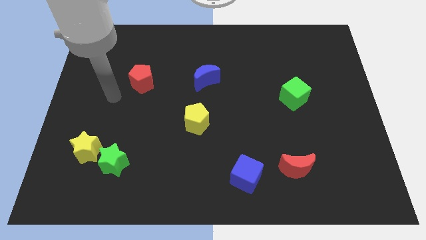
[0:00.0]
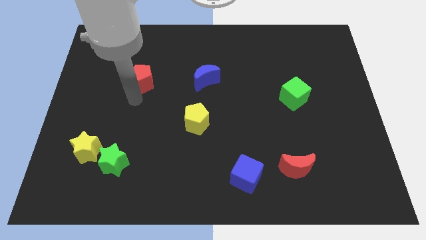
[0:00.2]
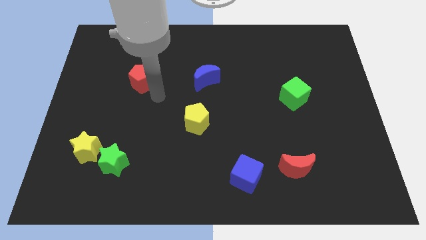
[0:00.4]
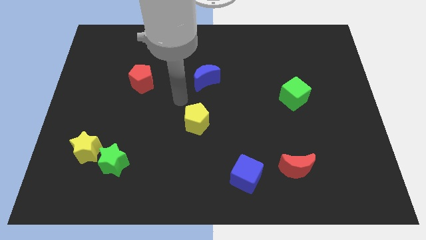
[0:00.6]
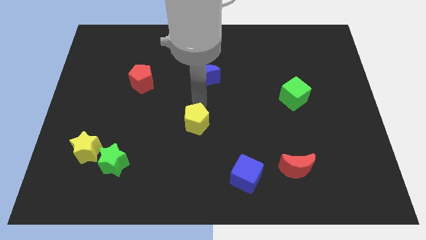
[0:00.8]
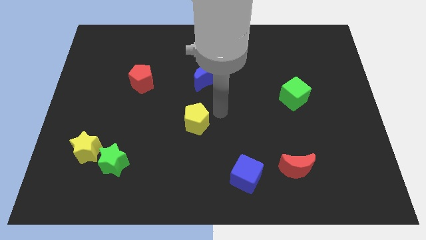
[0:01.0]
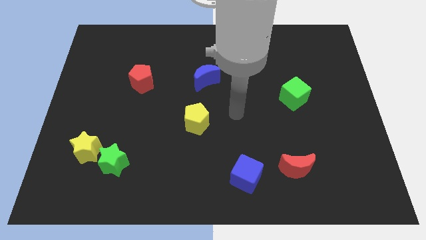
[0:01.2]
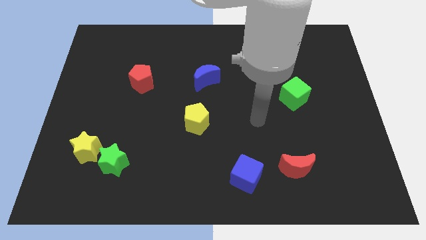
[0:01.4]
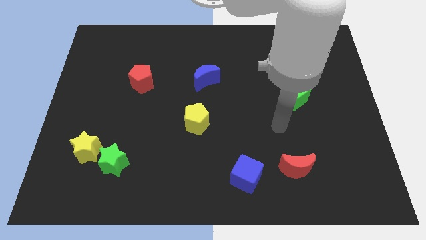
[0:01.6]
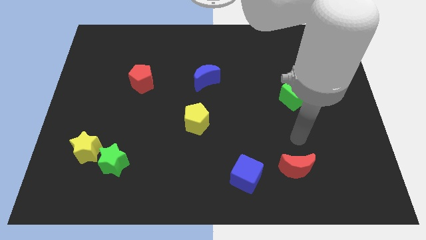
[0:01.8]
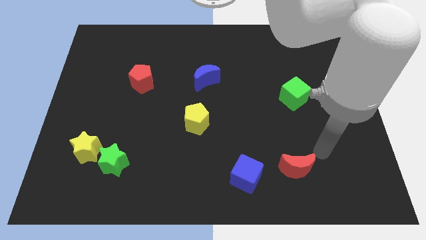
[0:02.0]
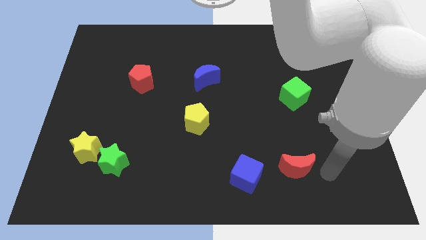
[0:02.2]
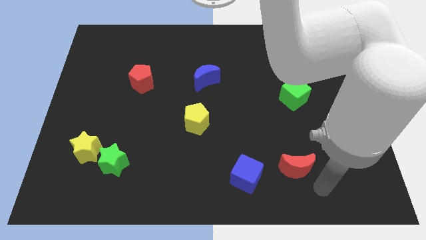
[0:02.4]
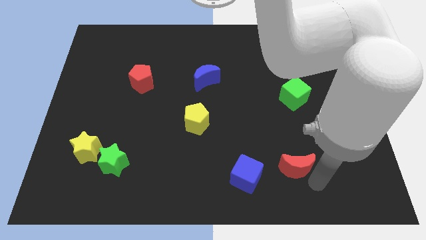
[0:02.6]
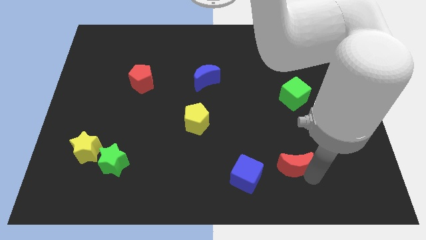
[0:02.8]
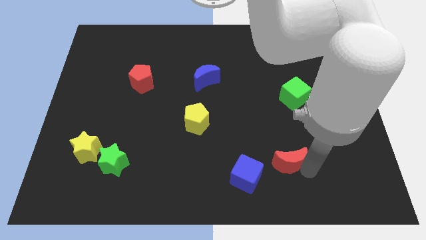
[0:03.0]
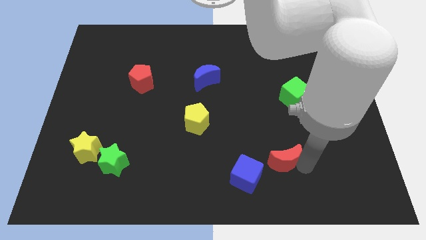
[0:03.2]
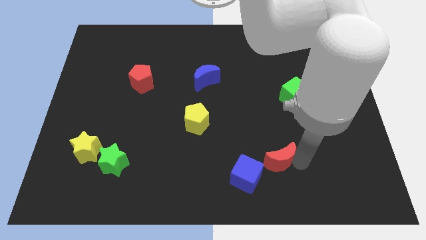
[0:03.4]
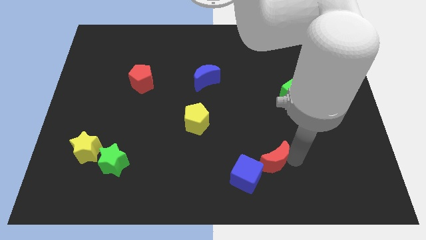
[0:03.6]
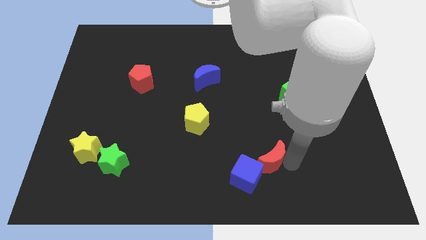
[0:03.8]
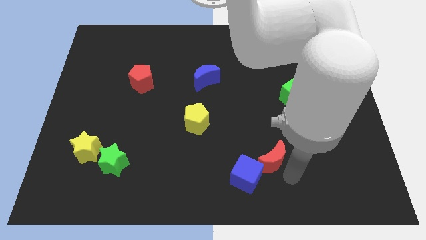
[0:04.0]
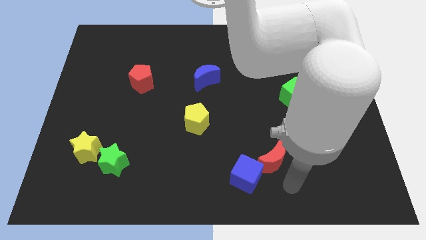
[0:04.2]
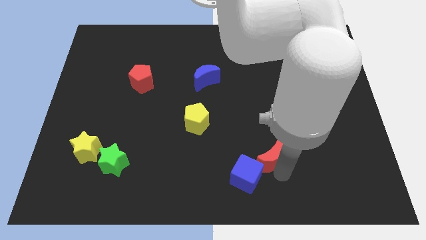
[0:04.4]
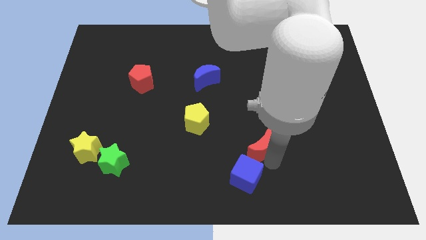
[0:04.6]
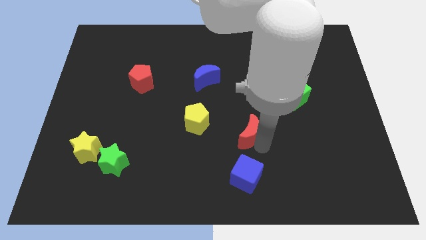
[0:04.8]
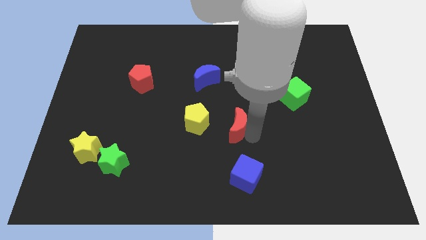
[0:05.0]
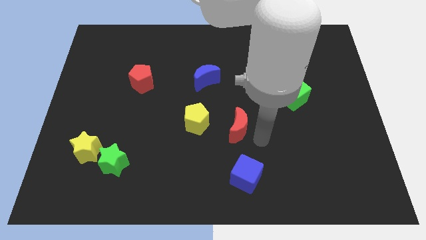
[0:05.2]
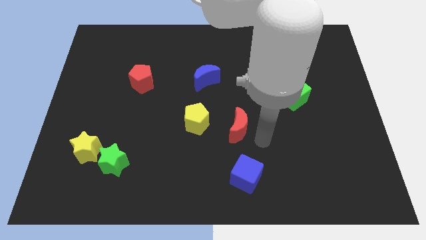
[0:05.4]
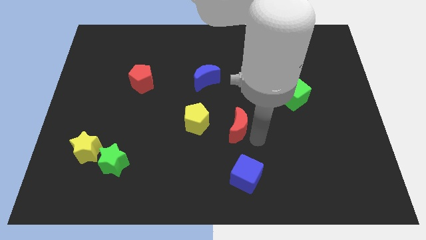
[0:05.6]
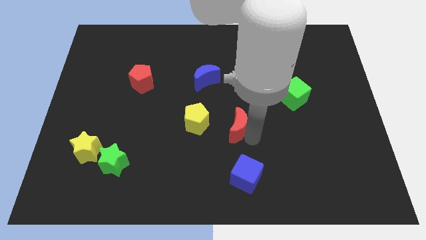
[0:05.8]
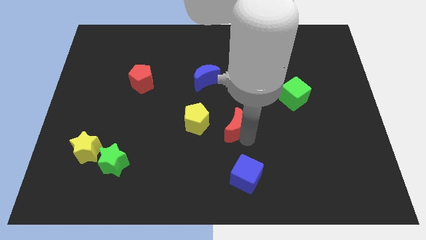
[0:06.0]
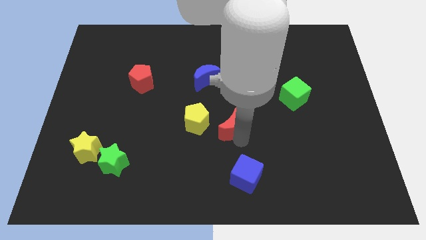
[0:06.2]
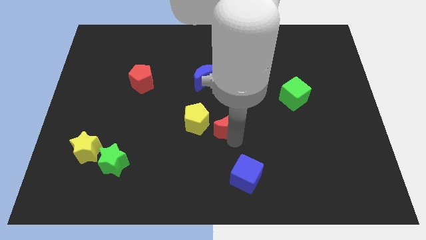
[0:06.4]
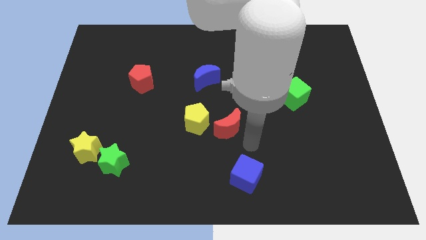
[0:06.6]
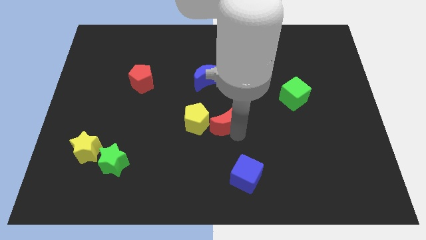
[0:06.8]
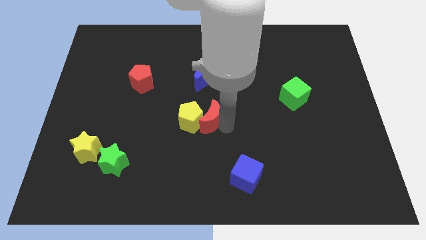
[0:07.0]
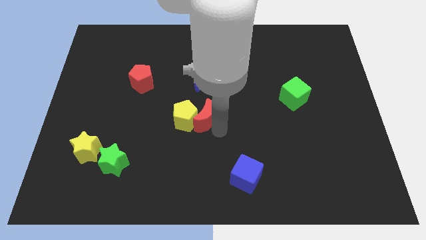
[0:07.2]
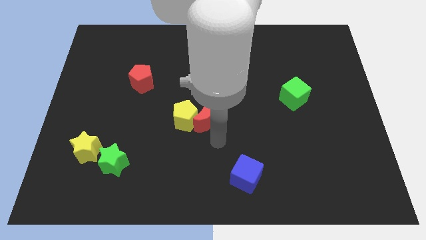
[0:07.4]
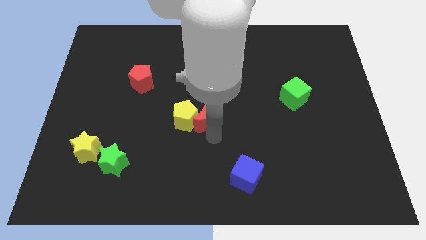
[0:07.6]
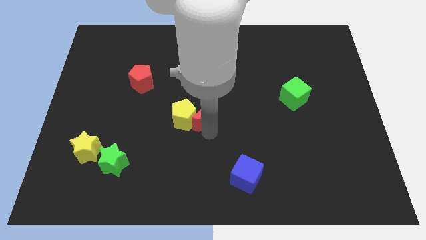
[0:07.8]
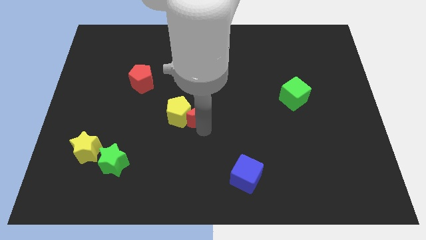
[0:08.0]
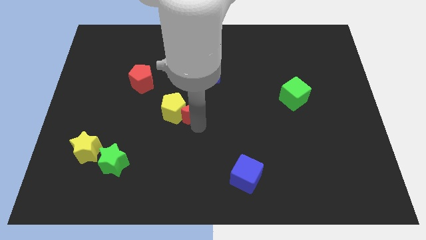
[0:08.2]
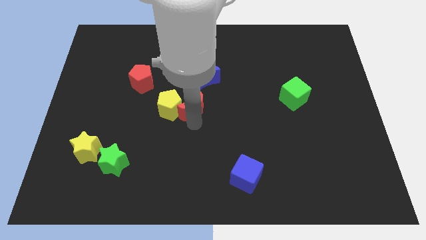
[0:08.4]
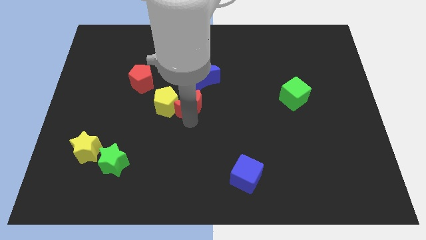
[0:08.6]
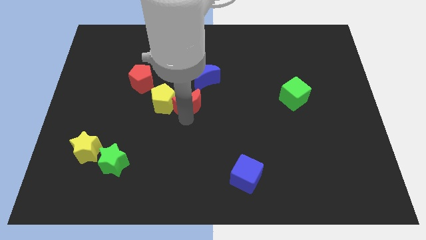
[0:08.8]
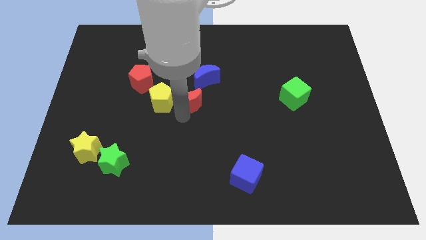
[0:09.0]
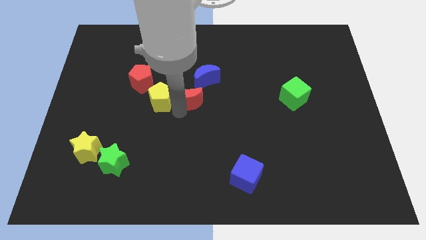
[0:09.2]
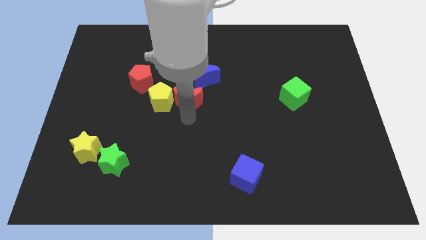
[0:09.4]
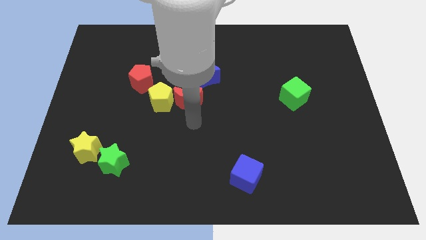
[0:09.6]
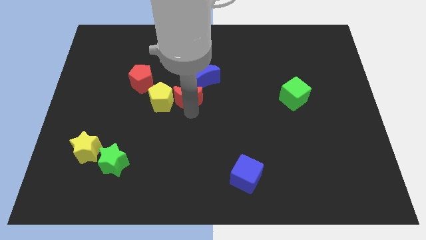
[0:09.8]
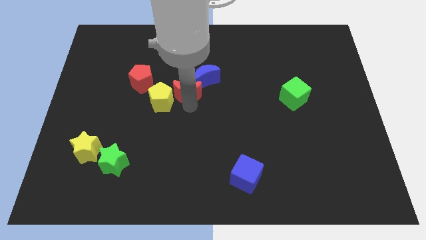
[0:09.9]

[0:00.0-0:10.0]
push the red moon to the right of the red pentagon

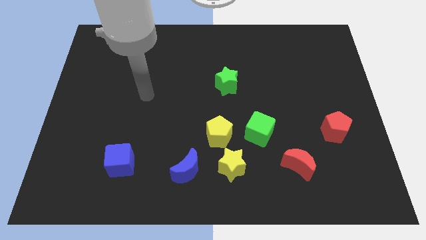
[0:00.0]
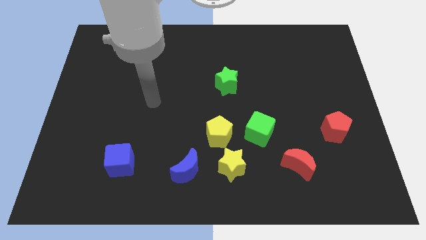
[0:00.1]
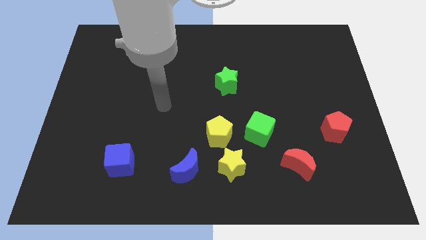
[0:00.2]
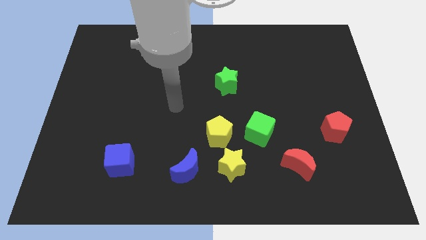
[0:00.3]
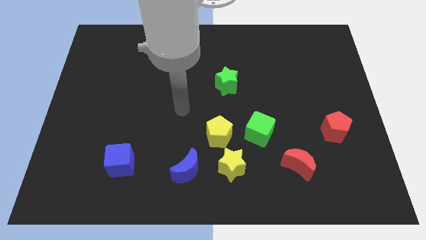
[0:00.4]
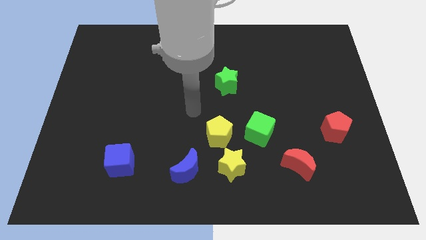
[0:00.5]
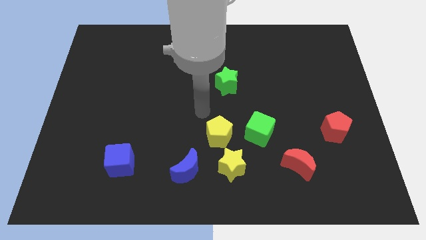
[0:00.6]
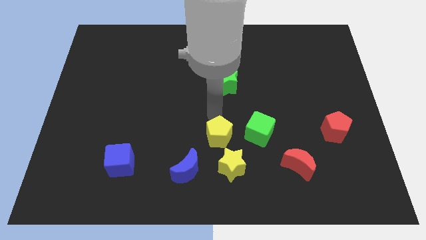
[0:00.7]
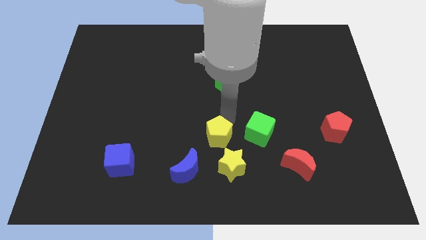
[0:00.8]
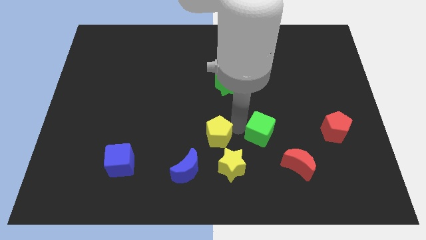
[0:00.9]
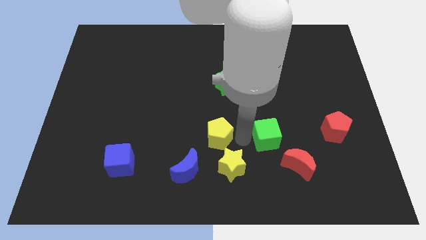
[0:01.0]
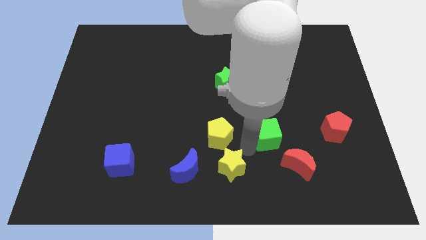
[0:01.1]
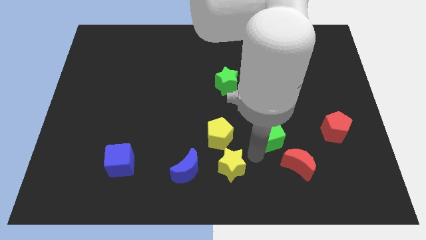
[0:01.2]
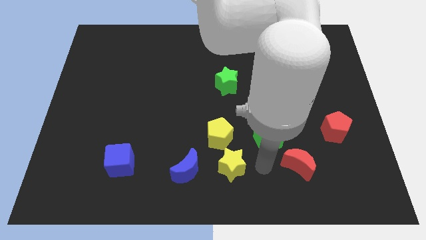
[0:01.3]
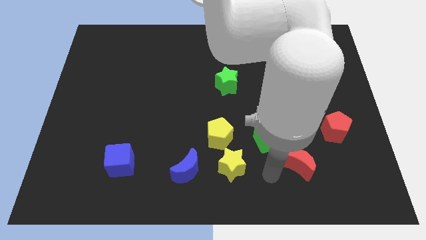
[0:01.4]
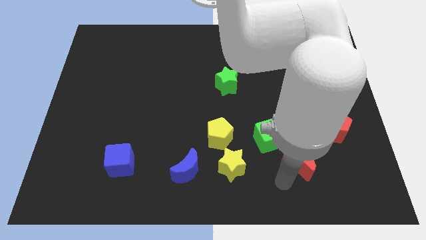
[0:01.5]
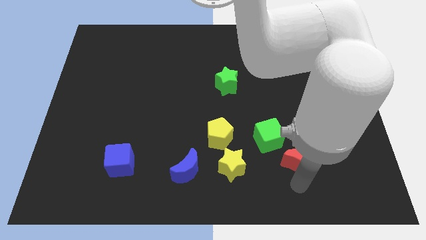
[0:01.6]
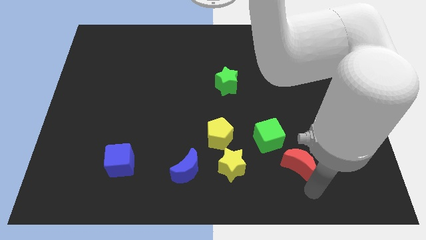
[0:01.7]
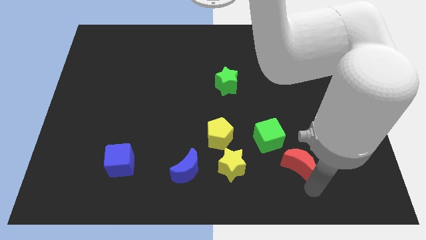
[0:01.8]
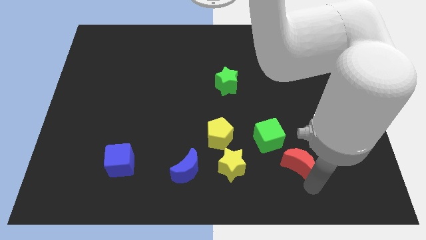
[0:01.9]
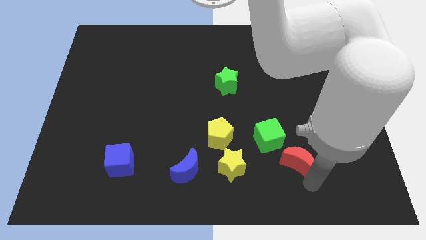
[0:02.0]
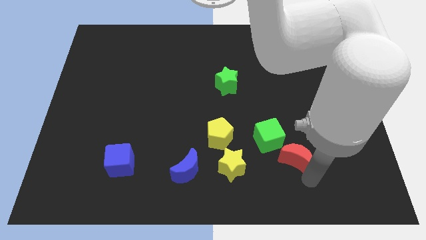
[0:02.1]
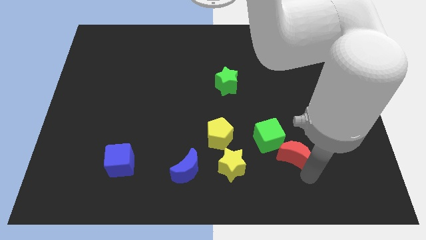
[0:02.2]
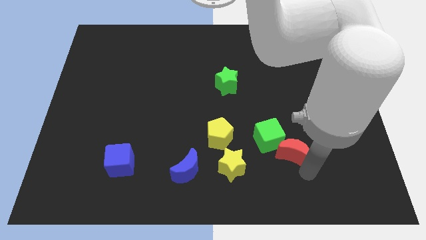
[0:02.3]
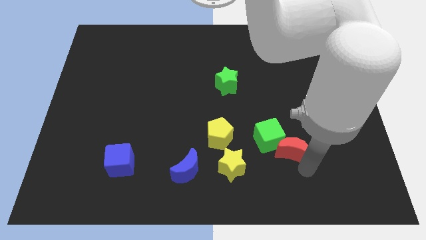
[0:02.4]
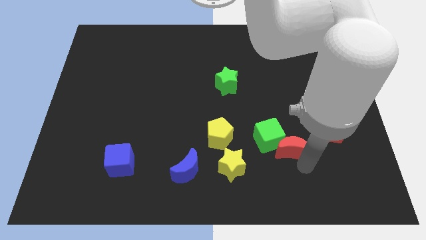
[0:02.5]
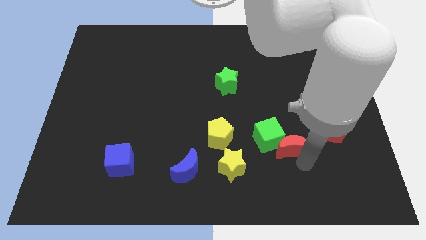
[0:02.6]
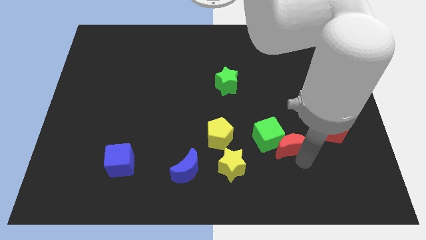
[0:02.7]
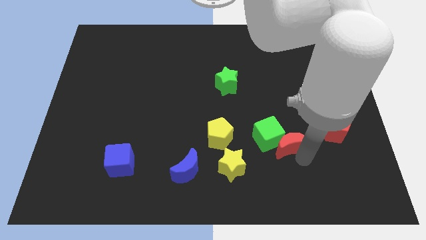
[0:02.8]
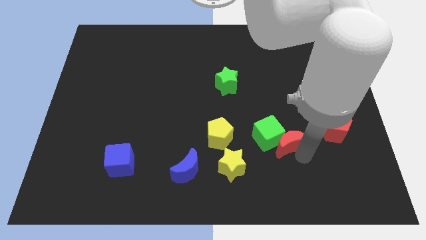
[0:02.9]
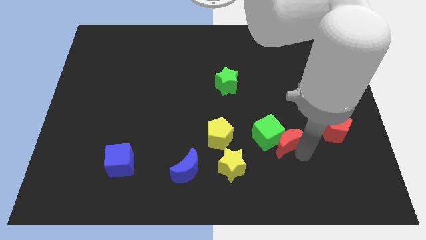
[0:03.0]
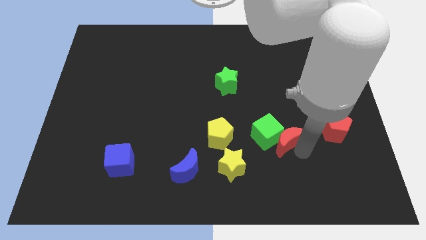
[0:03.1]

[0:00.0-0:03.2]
push the red moon diagonally up and to the right of the green cube
